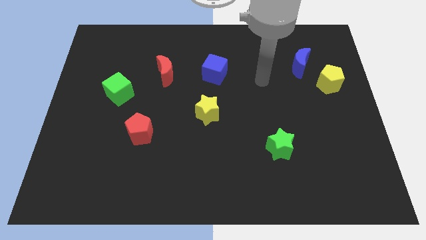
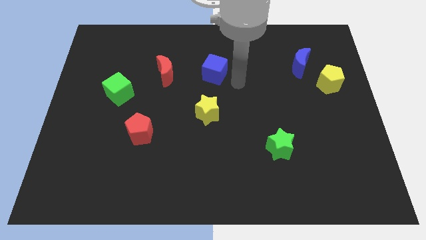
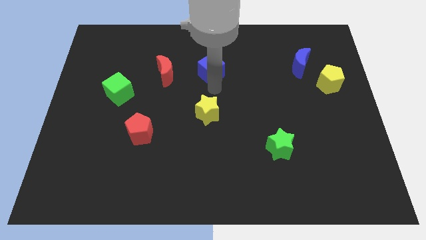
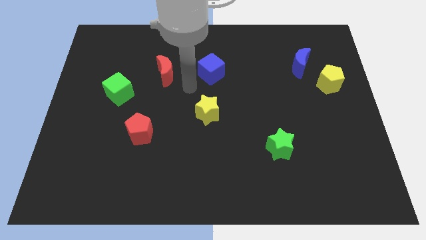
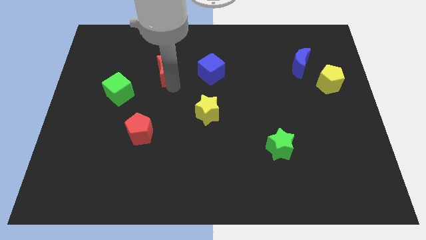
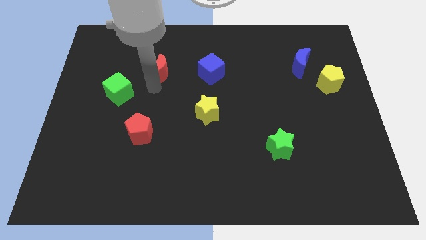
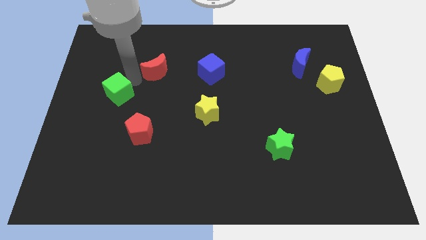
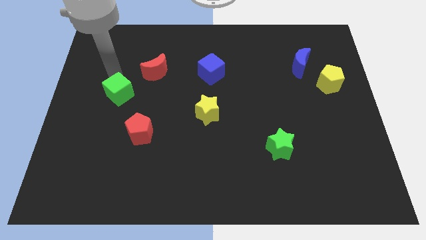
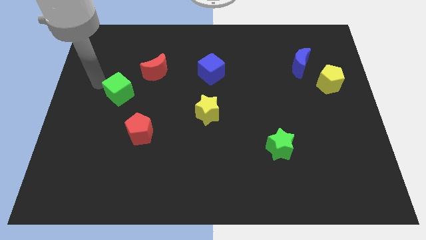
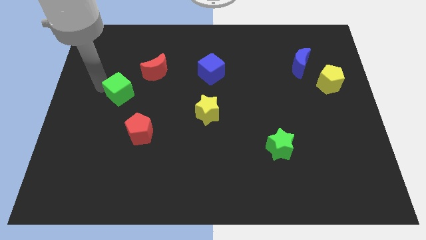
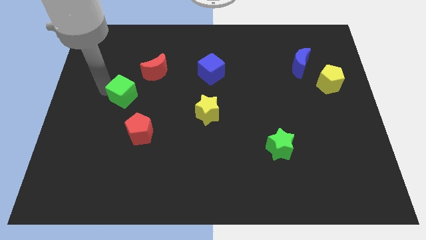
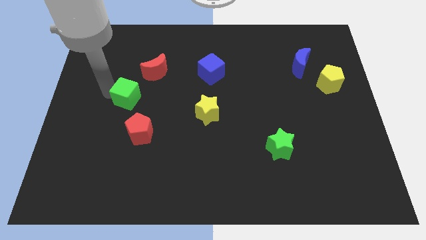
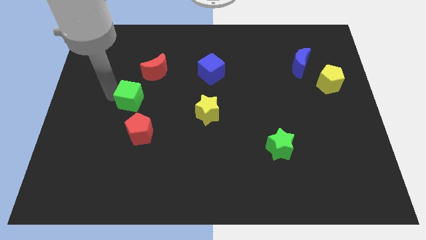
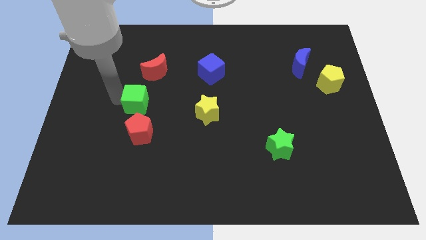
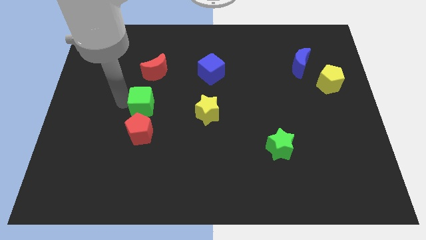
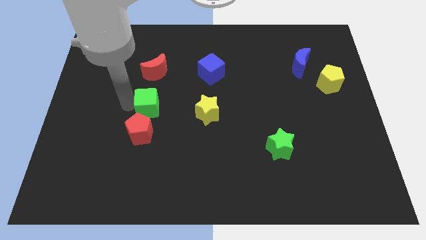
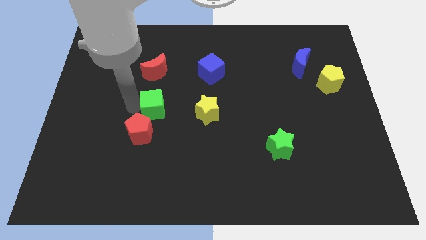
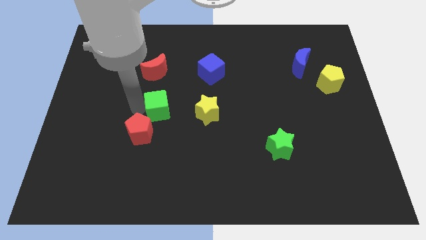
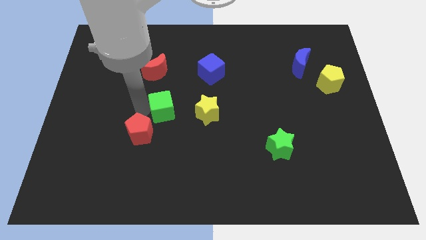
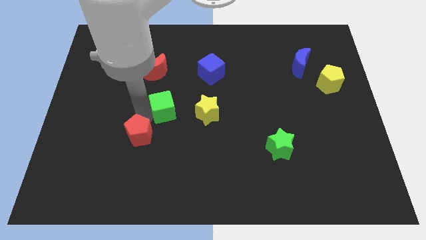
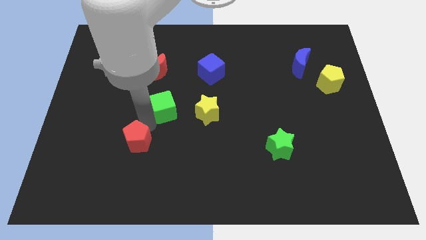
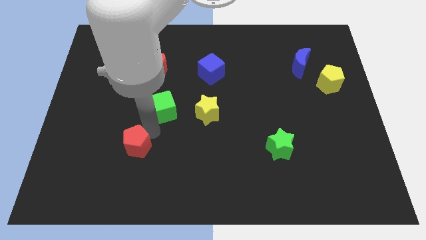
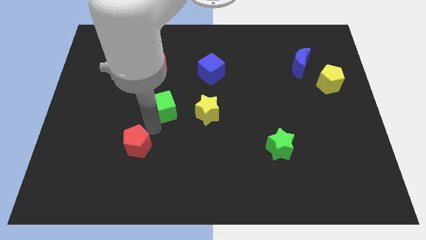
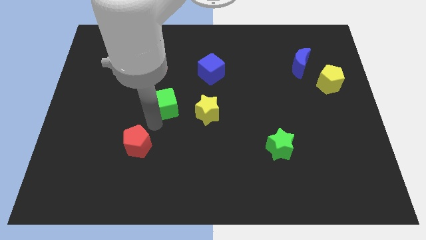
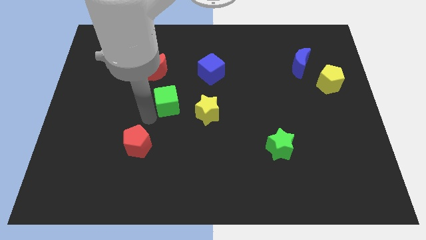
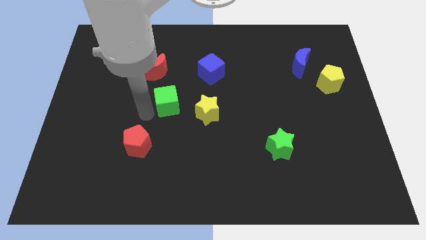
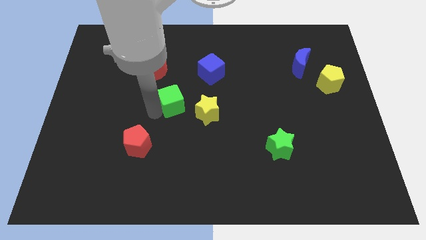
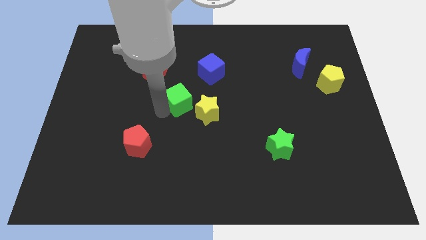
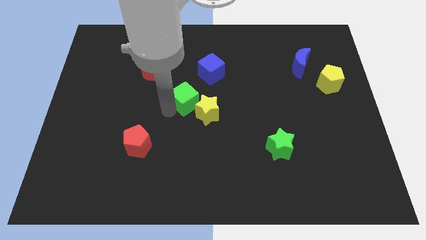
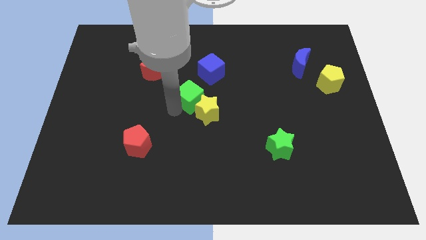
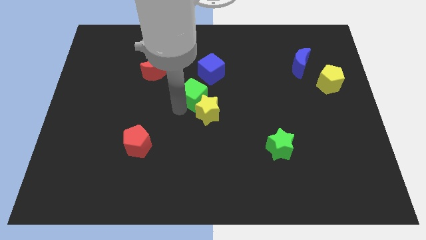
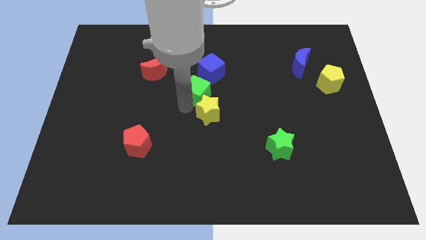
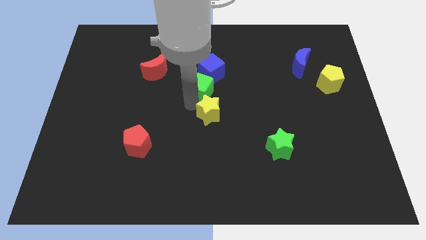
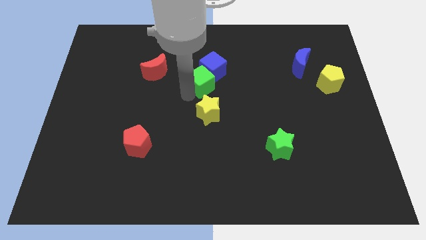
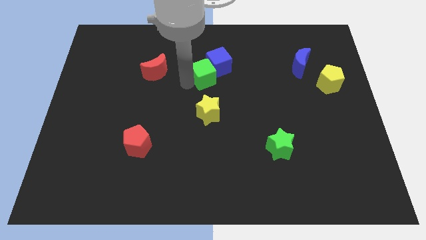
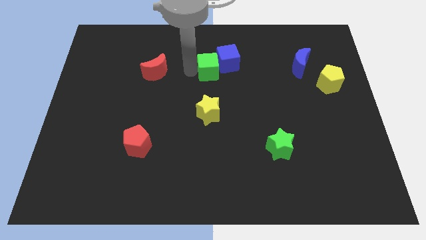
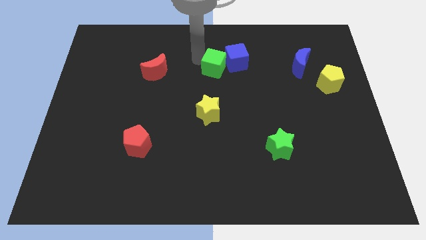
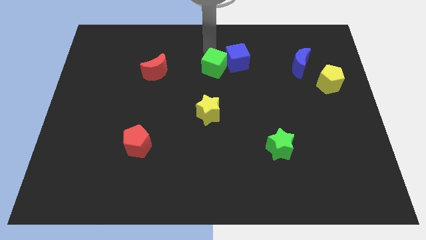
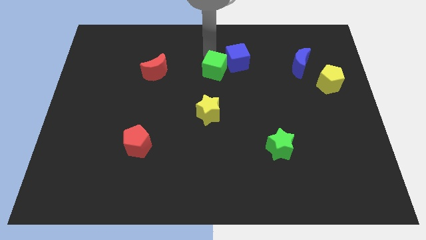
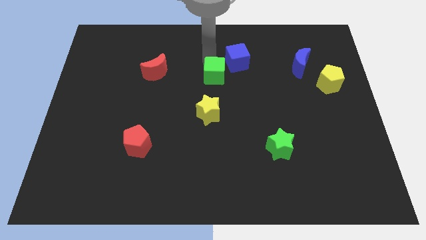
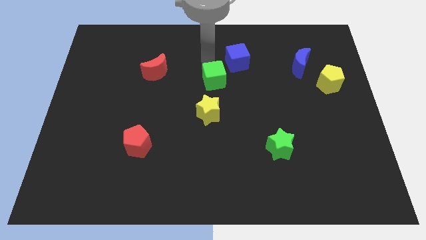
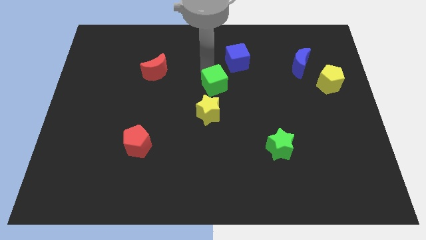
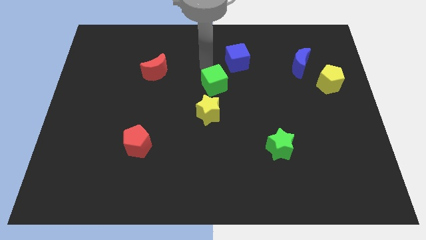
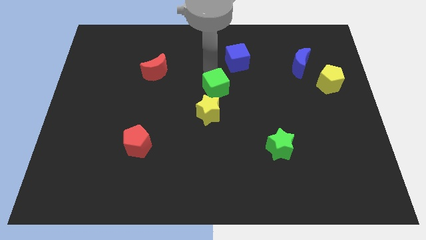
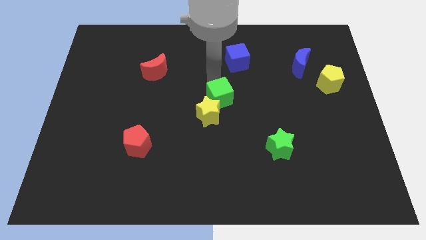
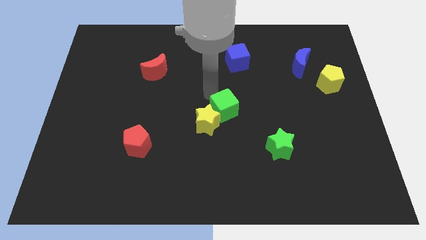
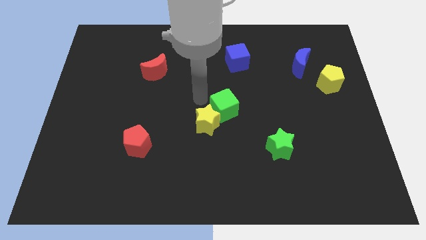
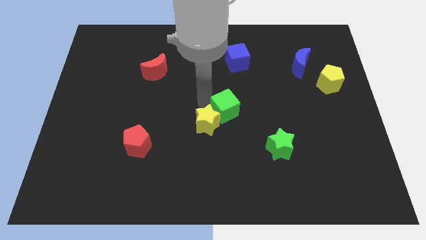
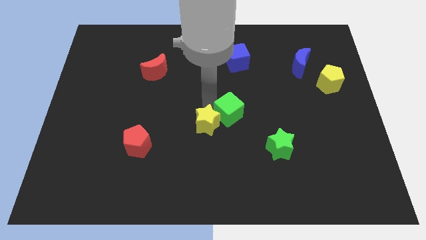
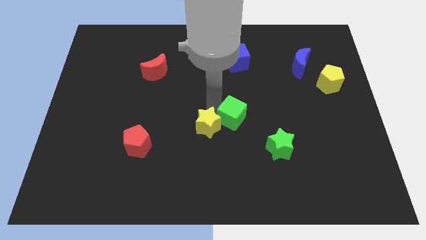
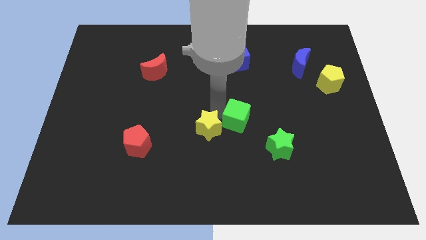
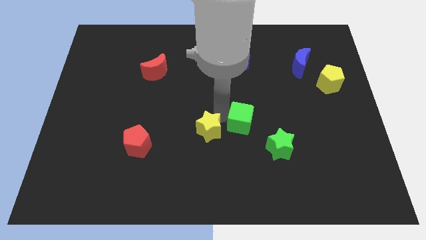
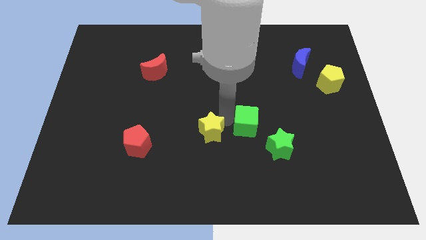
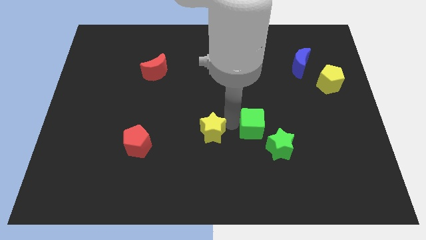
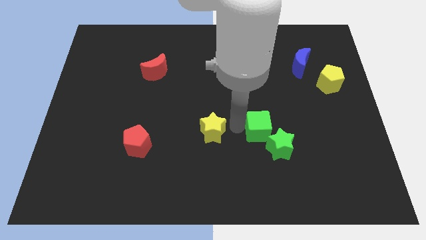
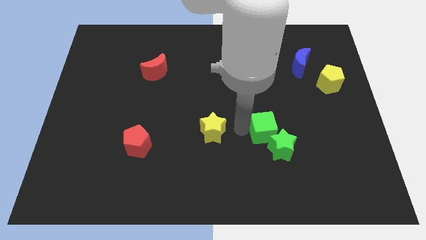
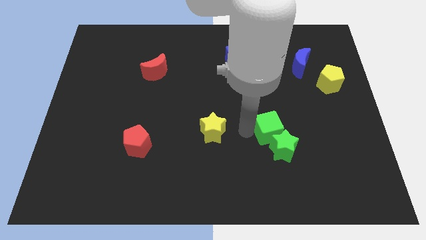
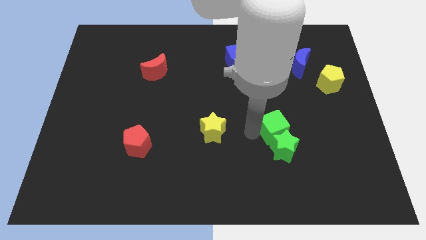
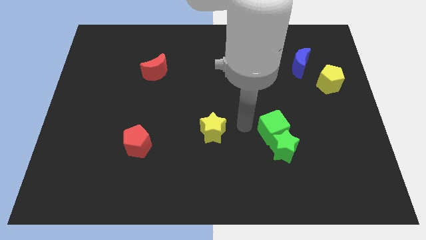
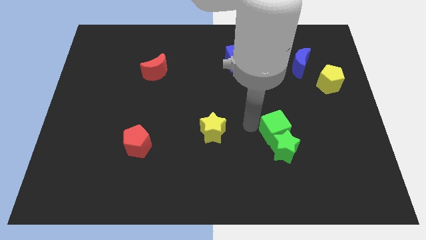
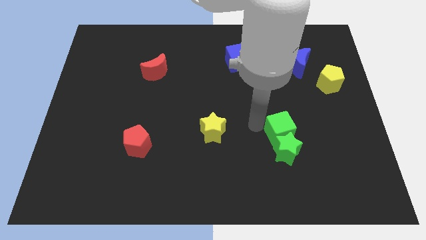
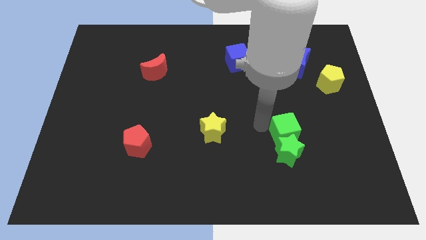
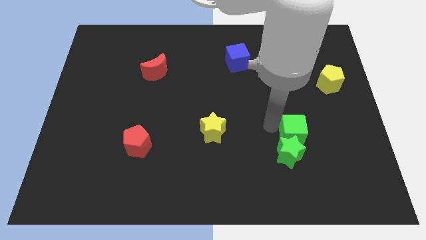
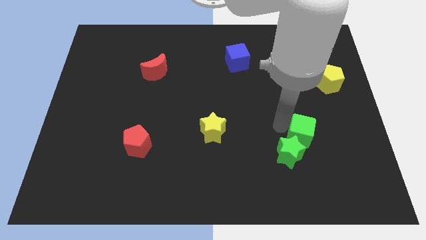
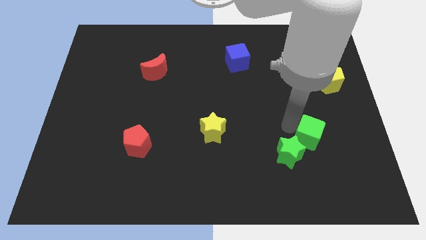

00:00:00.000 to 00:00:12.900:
push the green cube to the right side of the green star

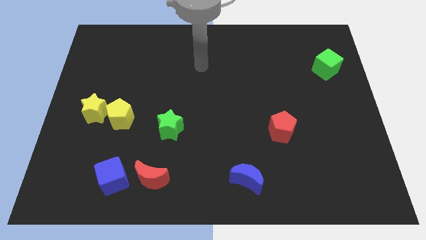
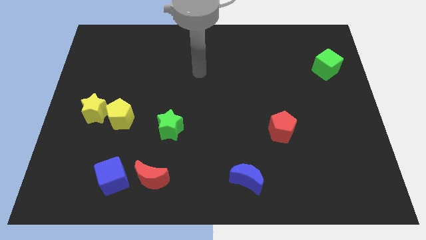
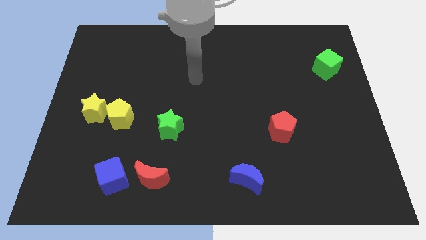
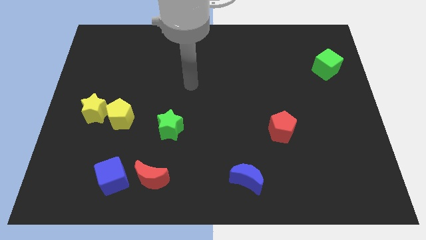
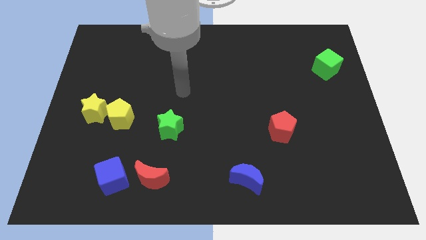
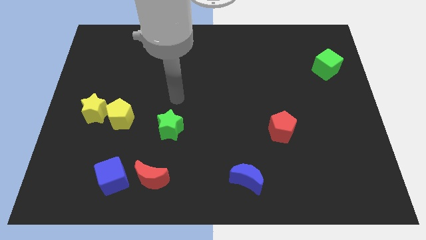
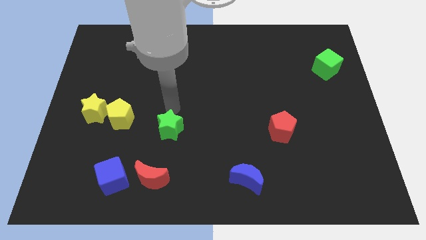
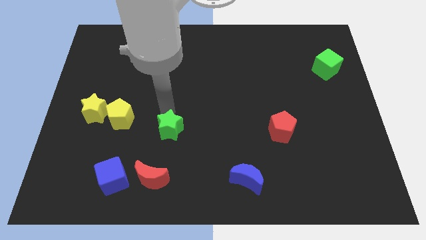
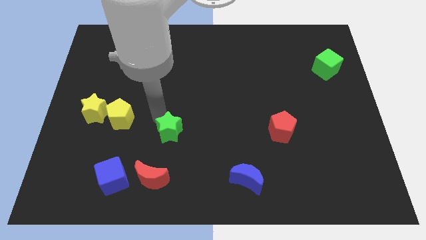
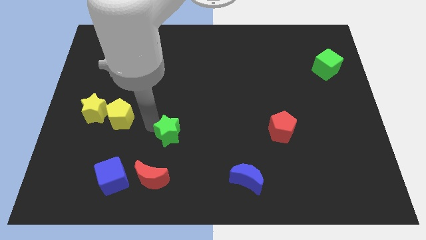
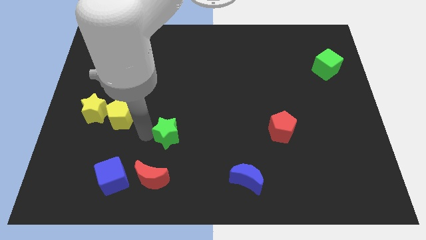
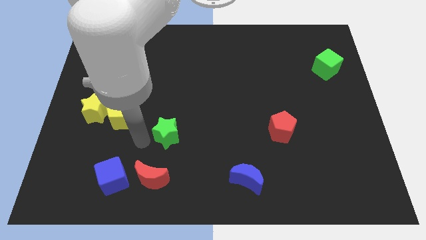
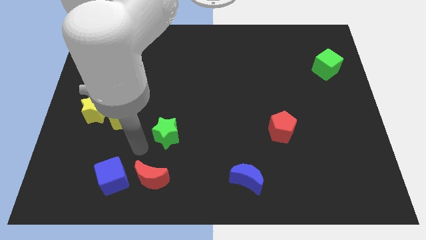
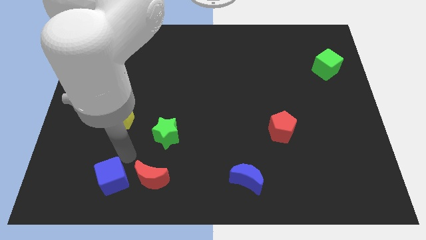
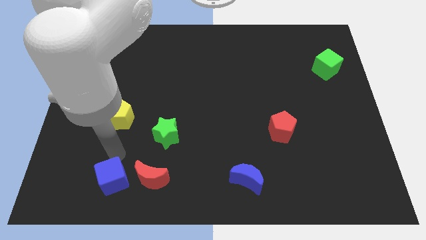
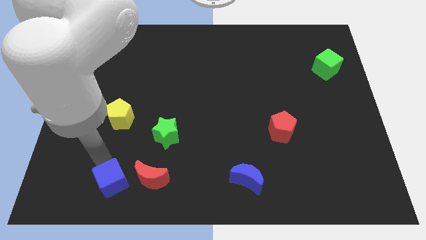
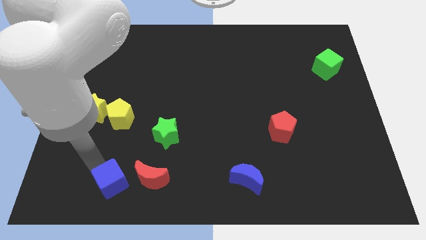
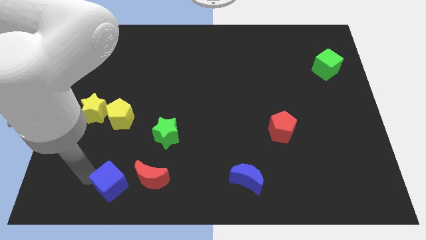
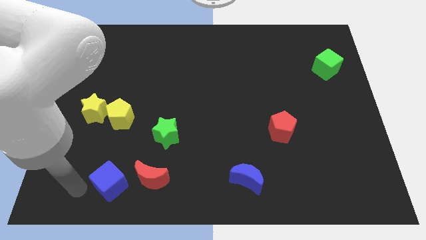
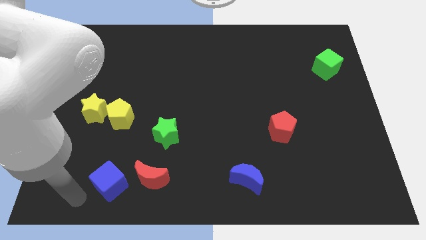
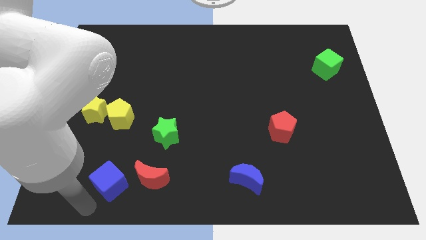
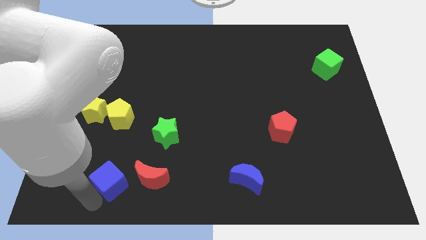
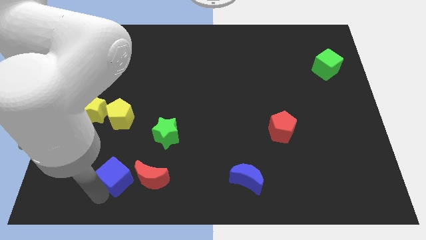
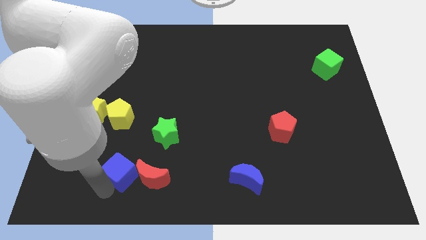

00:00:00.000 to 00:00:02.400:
move the blue cube to the bottom left side of the green star
